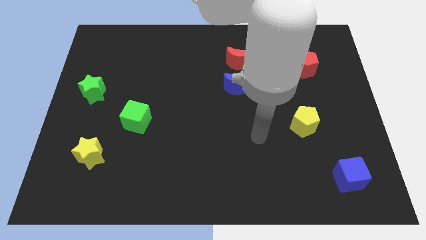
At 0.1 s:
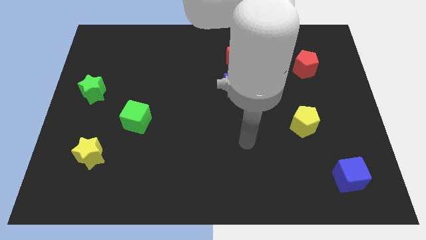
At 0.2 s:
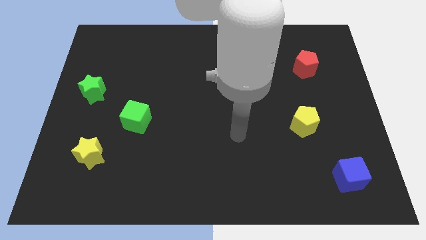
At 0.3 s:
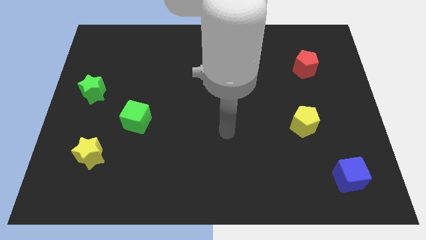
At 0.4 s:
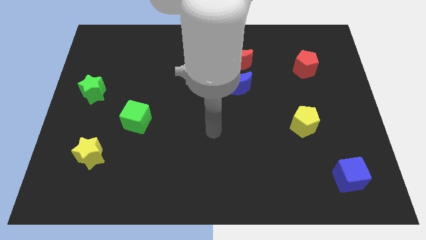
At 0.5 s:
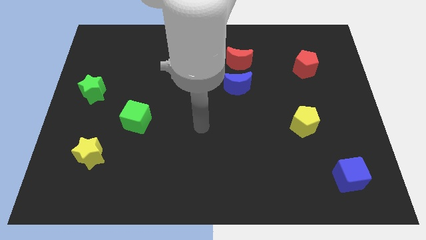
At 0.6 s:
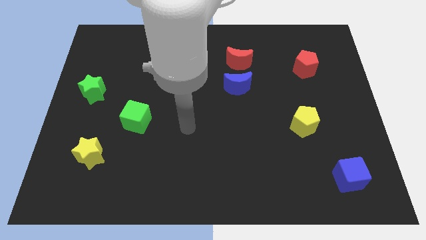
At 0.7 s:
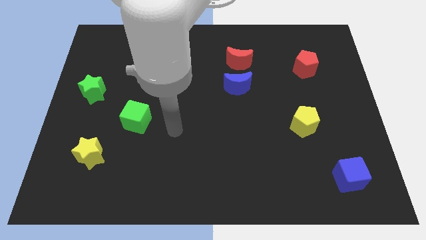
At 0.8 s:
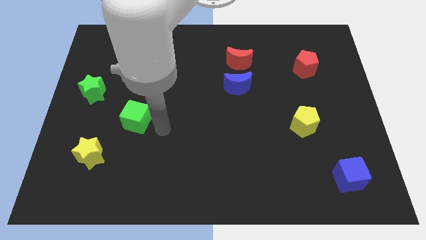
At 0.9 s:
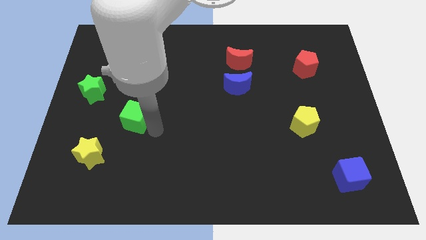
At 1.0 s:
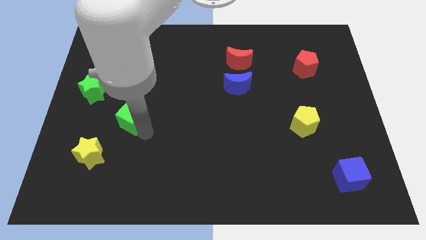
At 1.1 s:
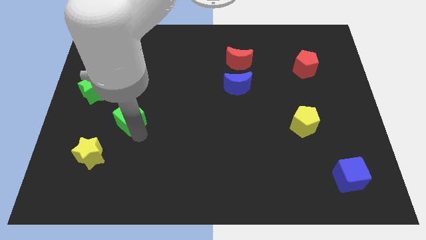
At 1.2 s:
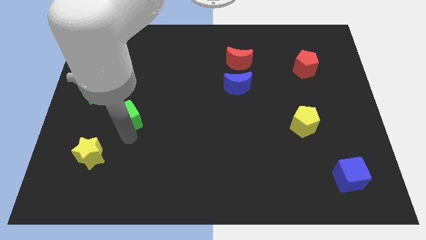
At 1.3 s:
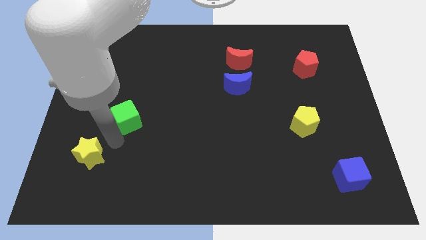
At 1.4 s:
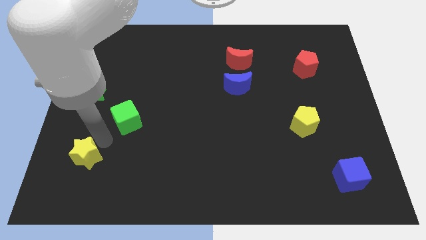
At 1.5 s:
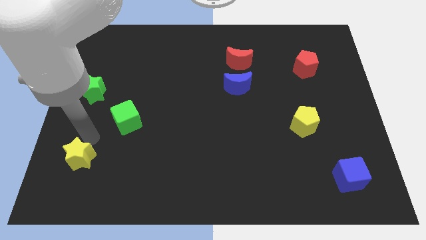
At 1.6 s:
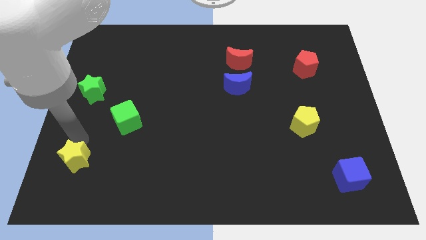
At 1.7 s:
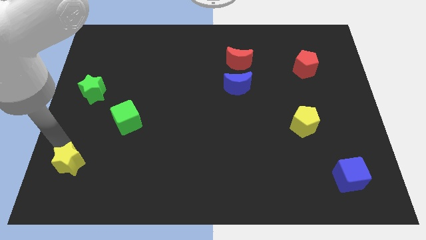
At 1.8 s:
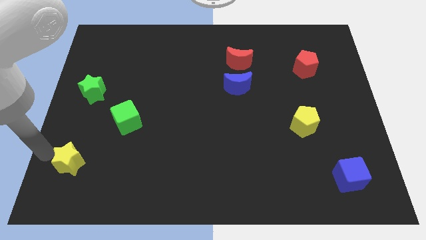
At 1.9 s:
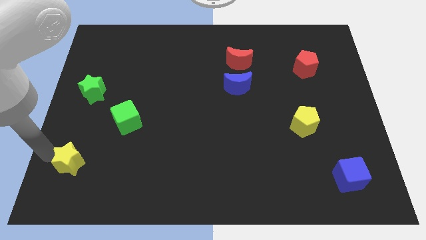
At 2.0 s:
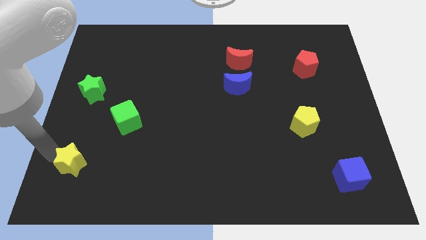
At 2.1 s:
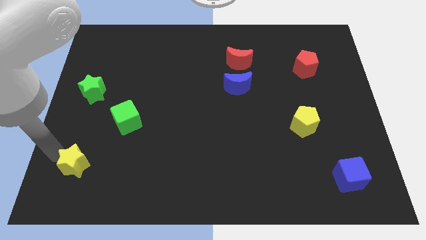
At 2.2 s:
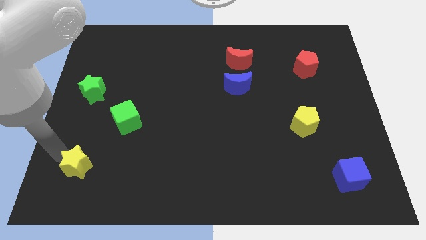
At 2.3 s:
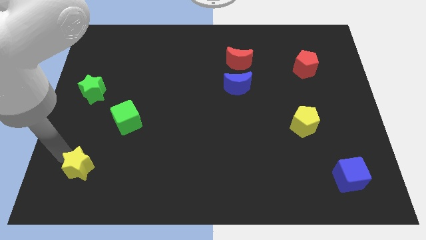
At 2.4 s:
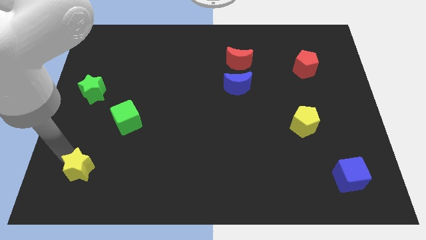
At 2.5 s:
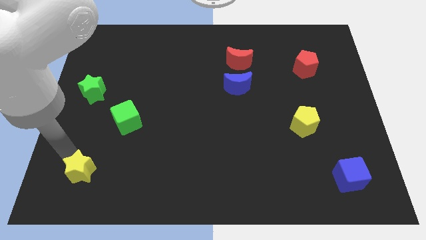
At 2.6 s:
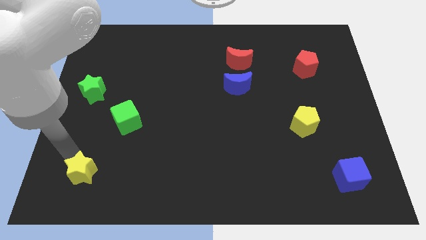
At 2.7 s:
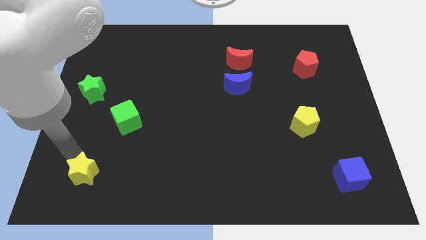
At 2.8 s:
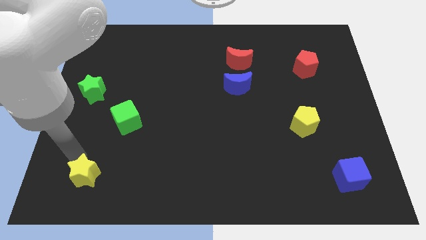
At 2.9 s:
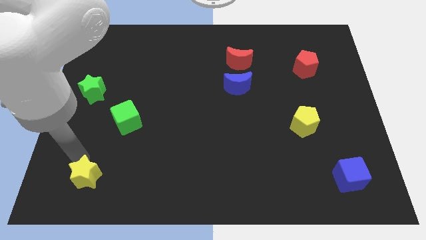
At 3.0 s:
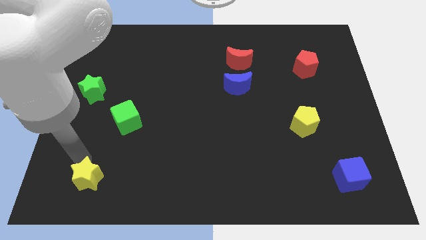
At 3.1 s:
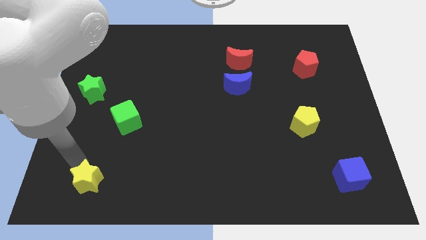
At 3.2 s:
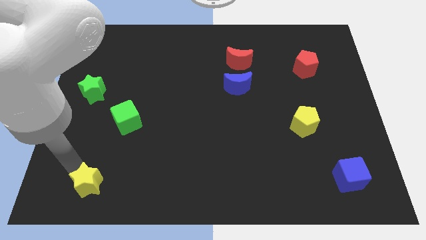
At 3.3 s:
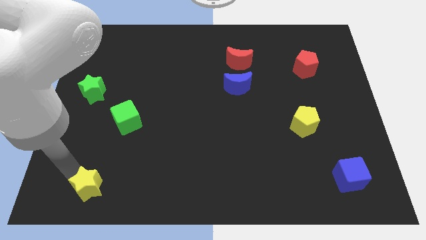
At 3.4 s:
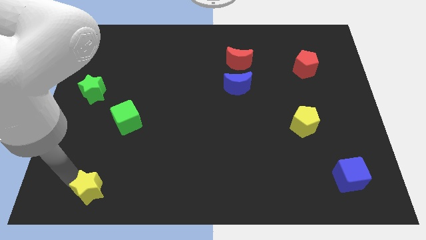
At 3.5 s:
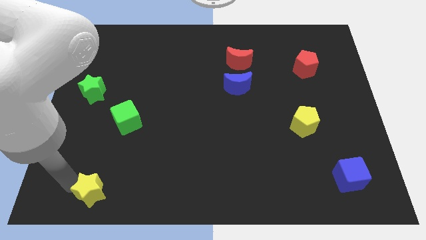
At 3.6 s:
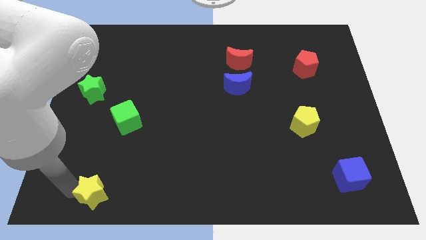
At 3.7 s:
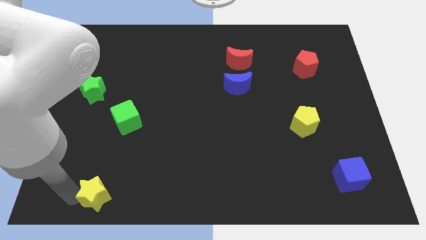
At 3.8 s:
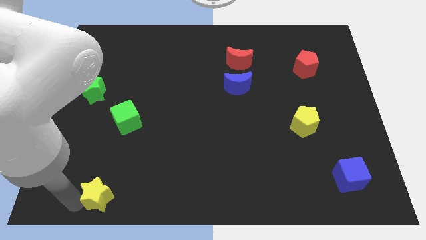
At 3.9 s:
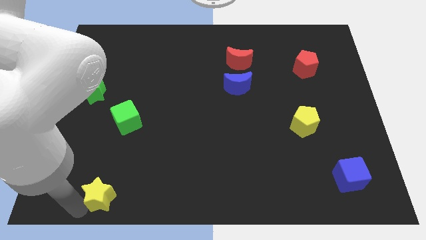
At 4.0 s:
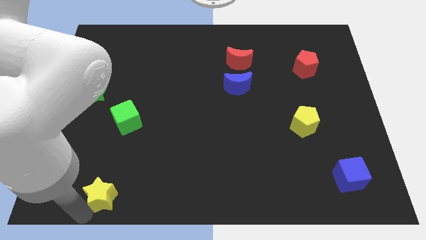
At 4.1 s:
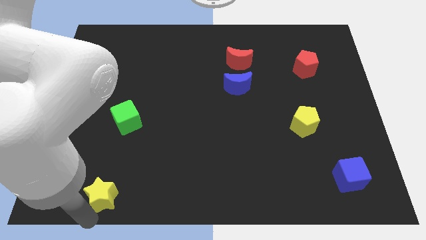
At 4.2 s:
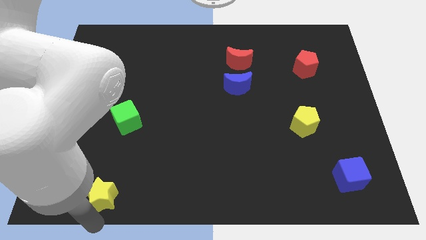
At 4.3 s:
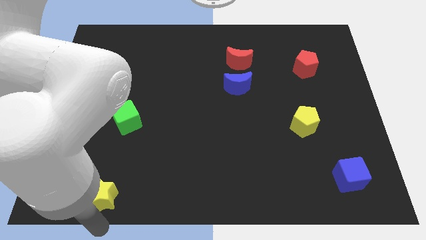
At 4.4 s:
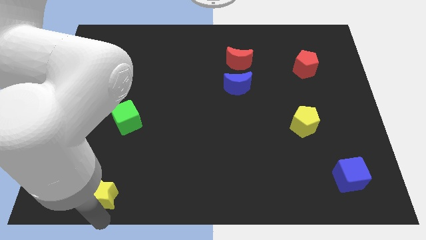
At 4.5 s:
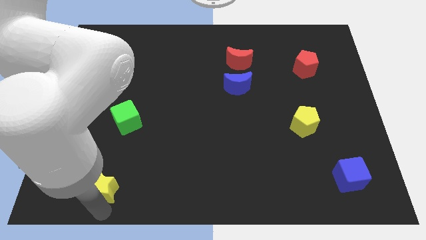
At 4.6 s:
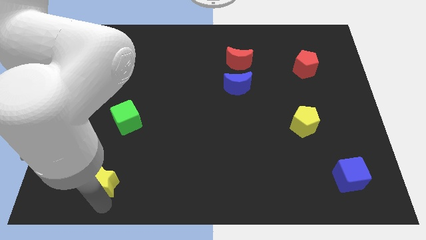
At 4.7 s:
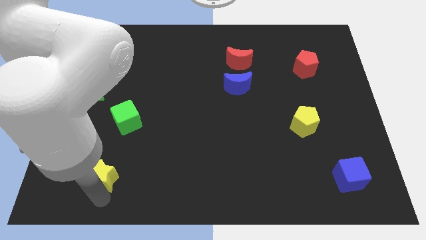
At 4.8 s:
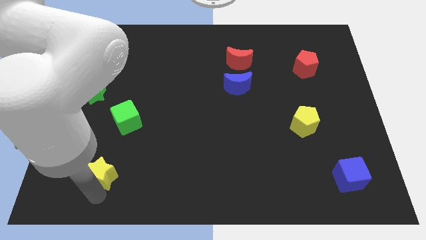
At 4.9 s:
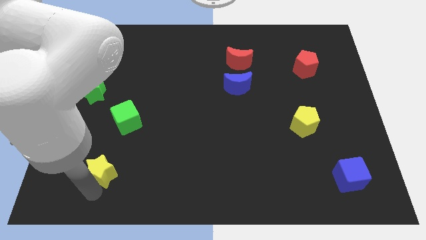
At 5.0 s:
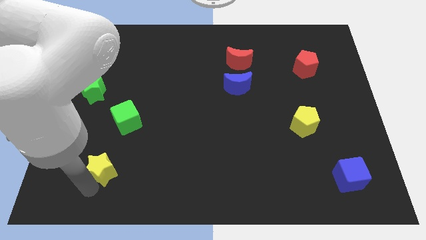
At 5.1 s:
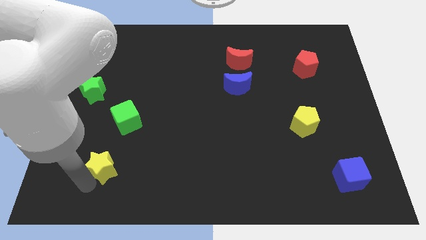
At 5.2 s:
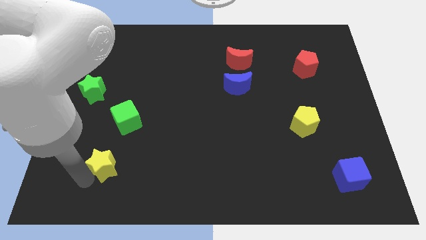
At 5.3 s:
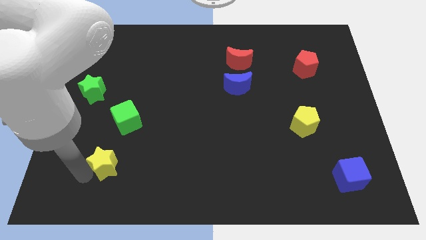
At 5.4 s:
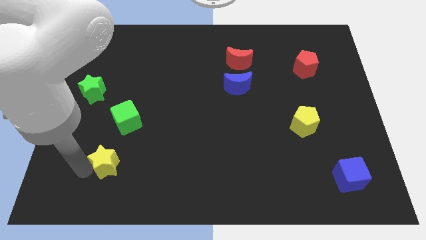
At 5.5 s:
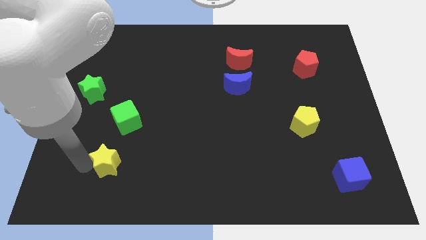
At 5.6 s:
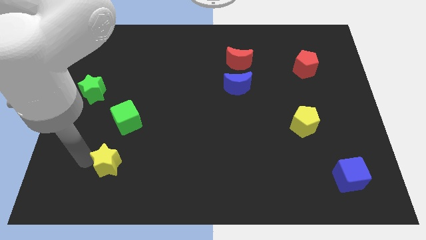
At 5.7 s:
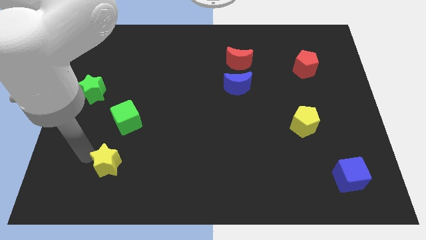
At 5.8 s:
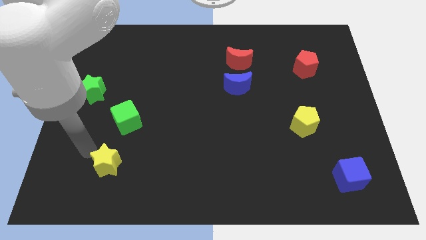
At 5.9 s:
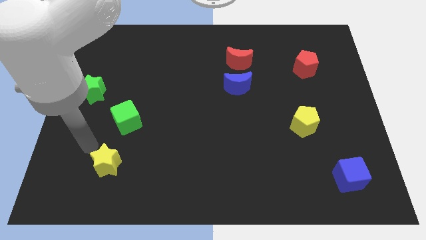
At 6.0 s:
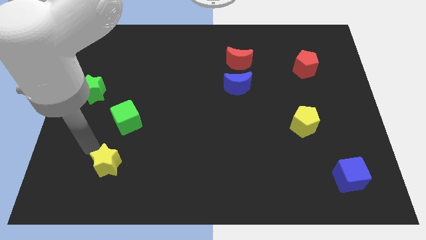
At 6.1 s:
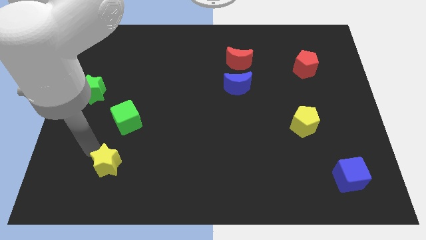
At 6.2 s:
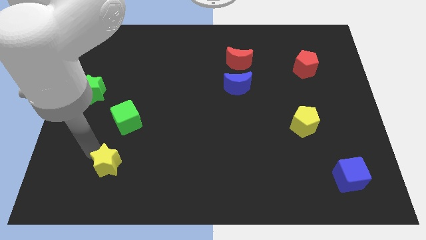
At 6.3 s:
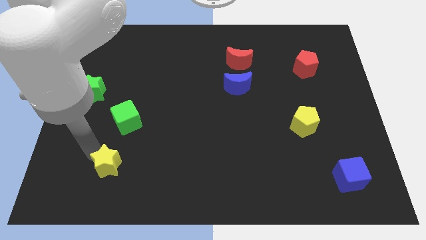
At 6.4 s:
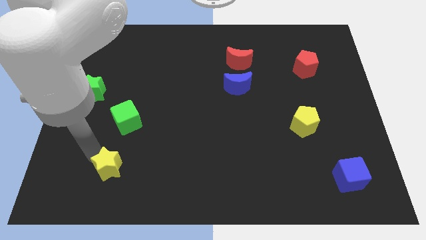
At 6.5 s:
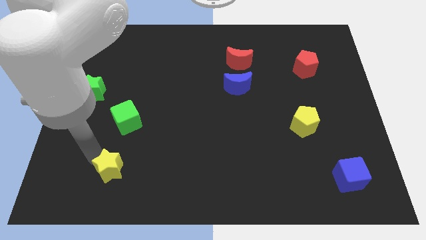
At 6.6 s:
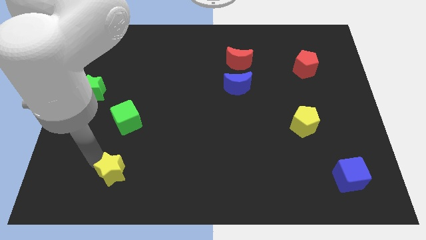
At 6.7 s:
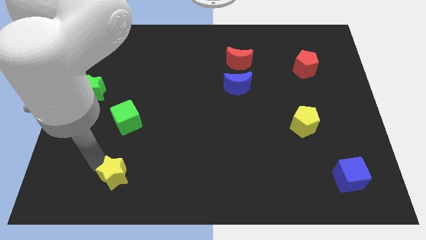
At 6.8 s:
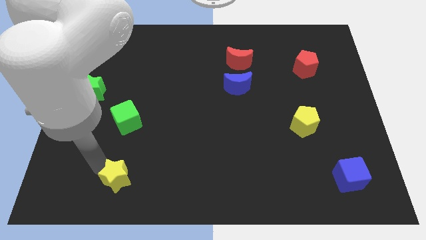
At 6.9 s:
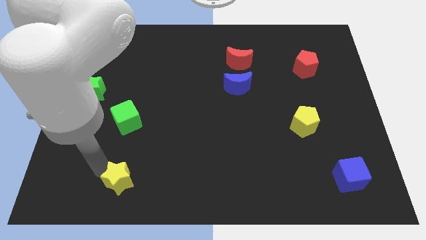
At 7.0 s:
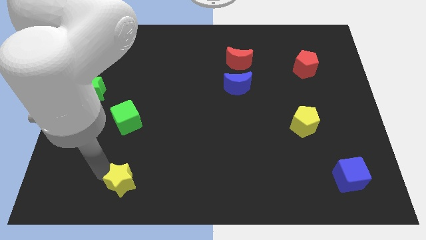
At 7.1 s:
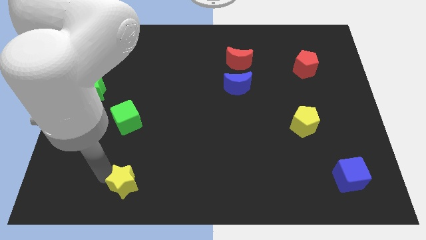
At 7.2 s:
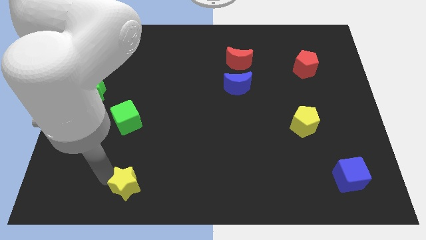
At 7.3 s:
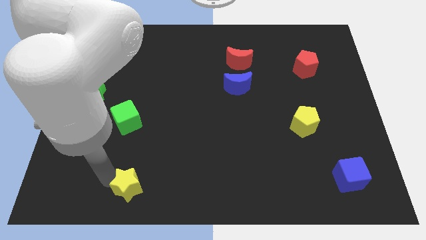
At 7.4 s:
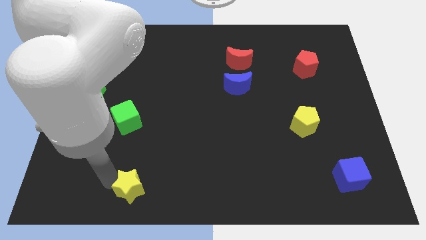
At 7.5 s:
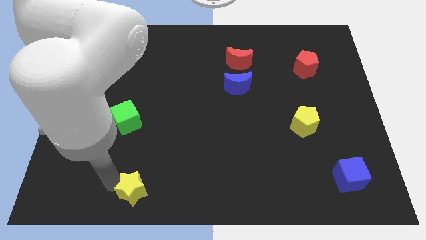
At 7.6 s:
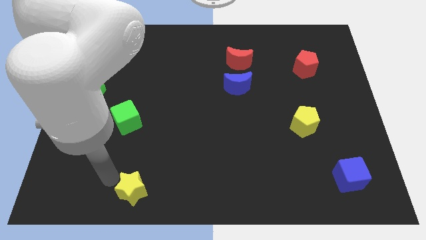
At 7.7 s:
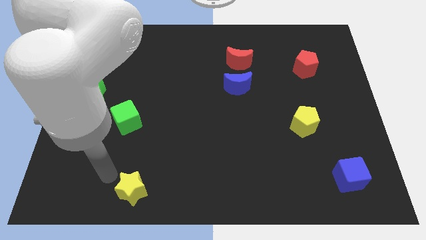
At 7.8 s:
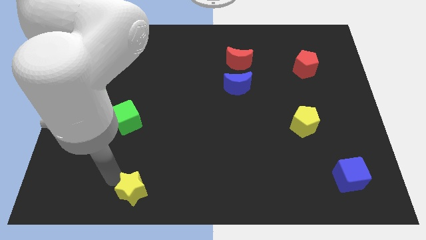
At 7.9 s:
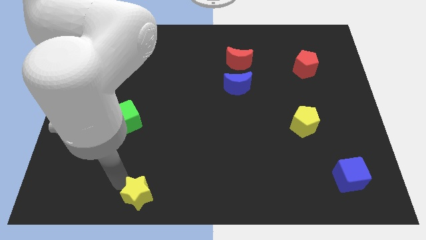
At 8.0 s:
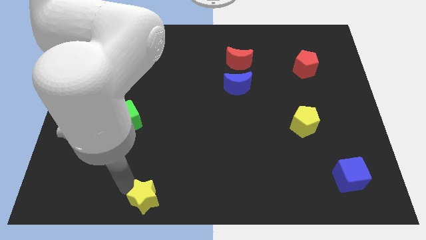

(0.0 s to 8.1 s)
put the yellow star to the bottom
